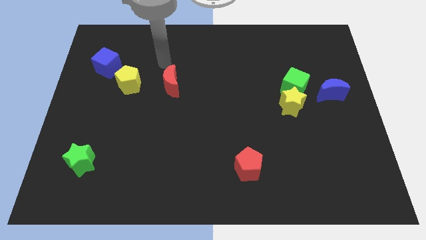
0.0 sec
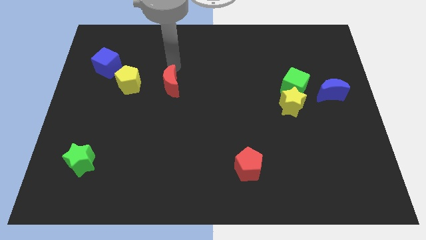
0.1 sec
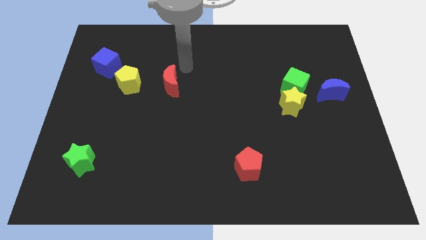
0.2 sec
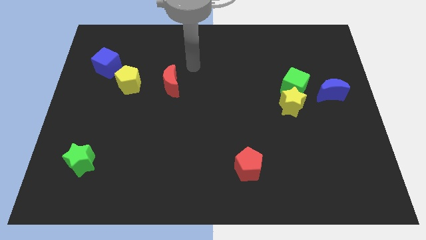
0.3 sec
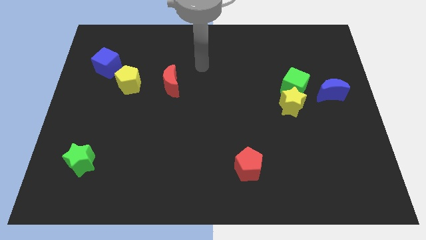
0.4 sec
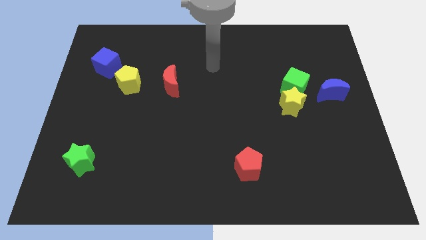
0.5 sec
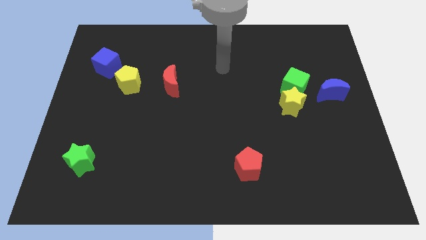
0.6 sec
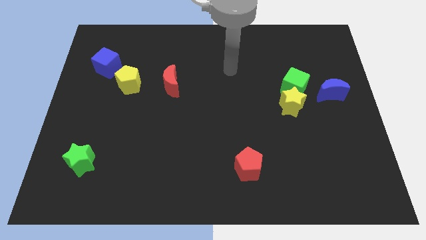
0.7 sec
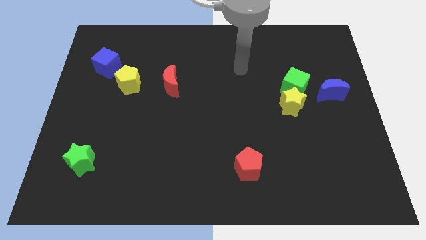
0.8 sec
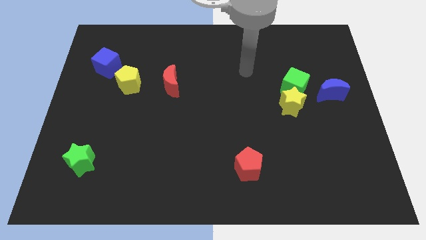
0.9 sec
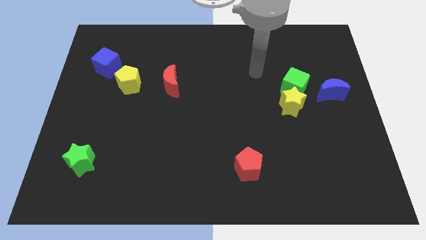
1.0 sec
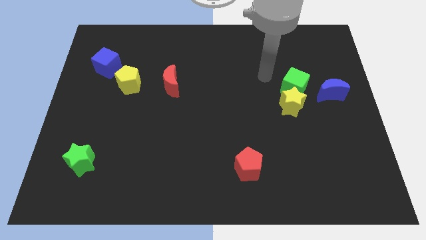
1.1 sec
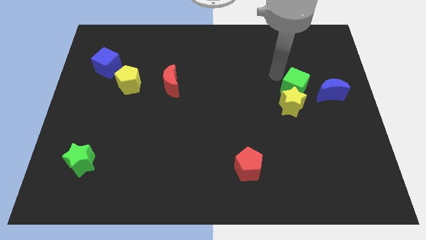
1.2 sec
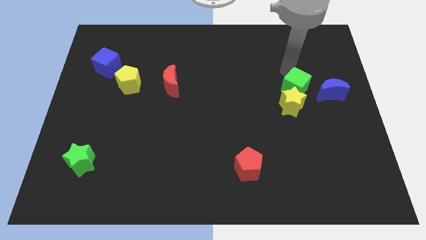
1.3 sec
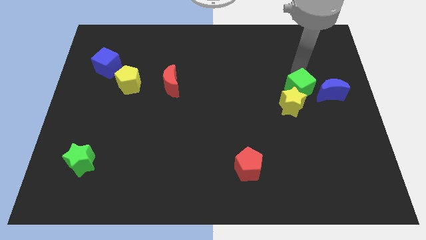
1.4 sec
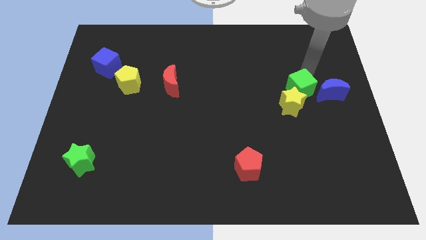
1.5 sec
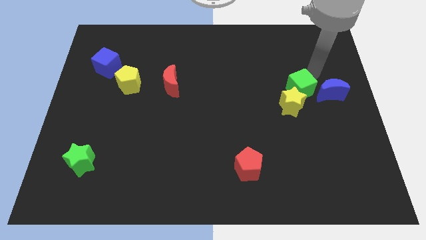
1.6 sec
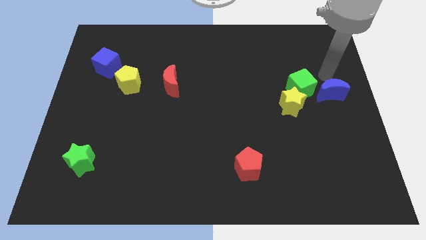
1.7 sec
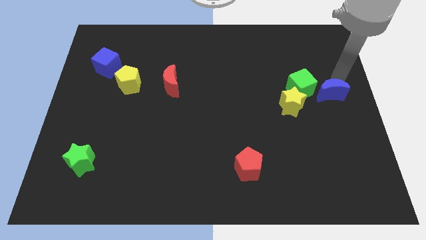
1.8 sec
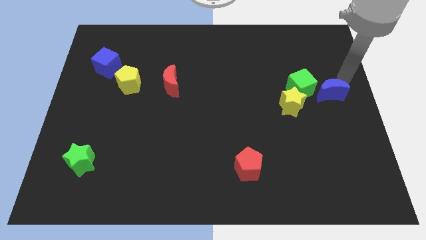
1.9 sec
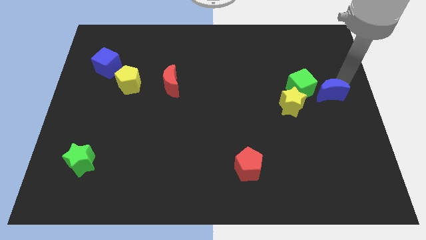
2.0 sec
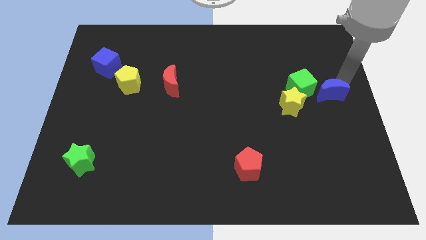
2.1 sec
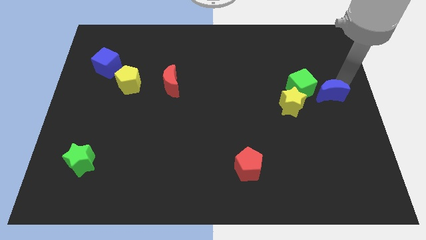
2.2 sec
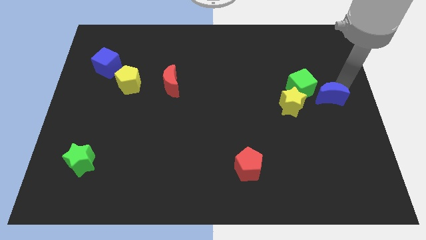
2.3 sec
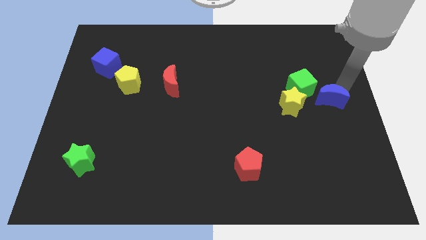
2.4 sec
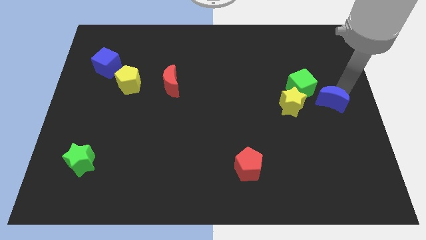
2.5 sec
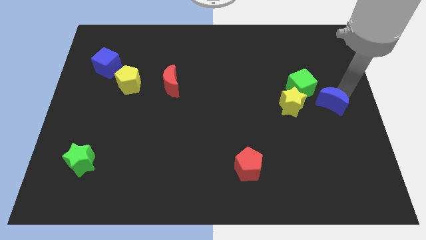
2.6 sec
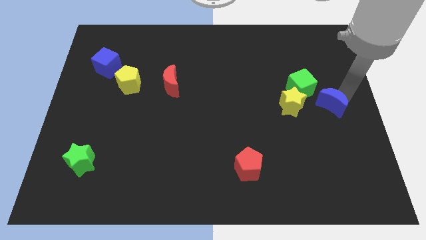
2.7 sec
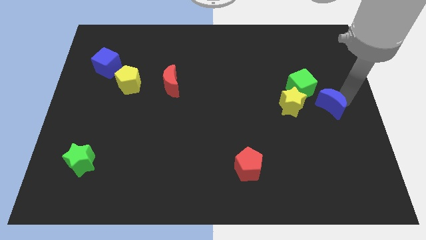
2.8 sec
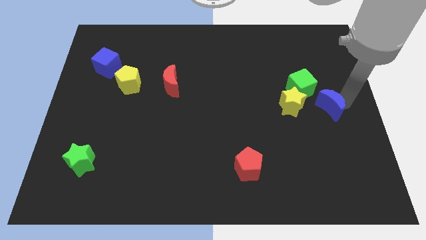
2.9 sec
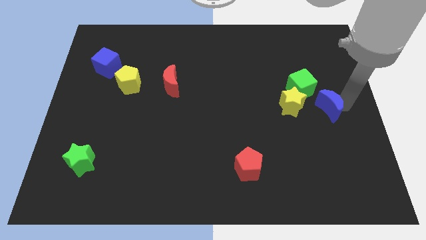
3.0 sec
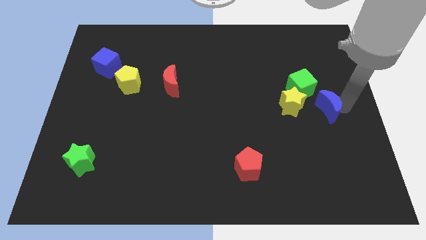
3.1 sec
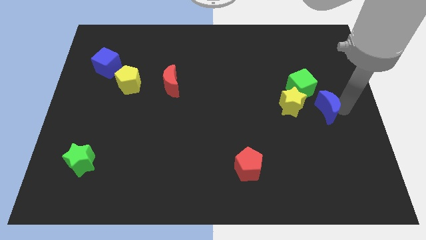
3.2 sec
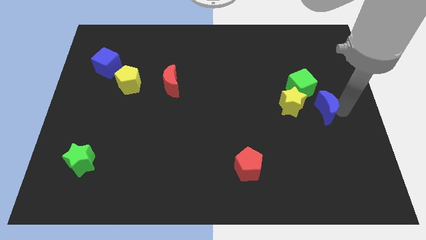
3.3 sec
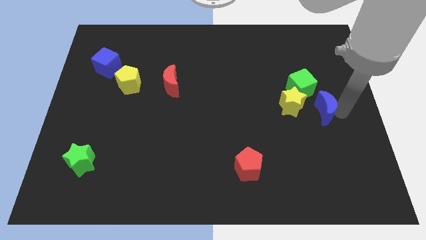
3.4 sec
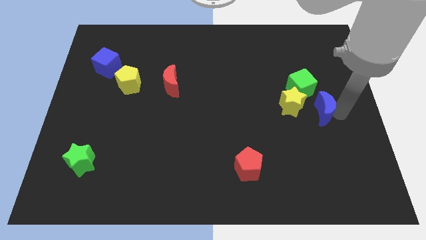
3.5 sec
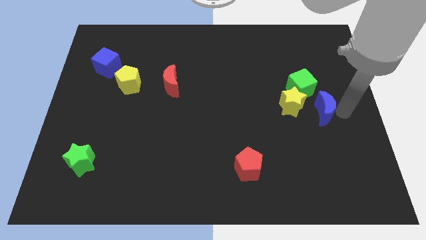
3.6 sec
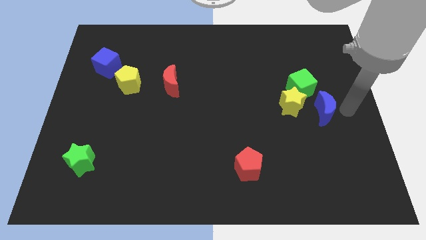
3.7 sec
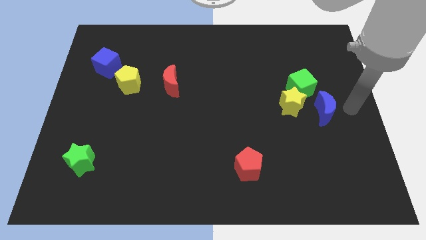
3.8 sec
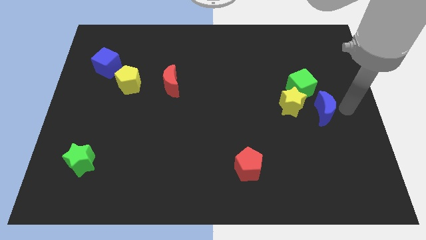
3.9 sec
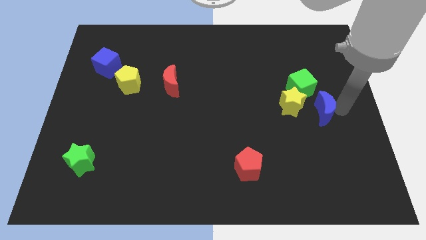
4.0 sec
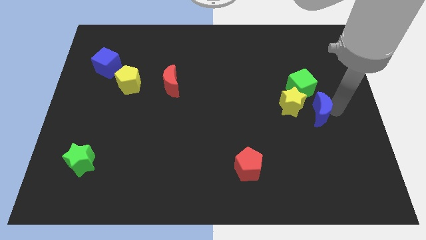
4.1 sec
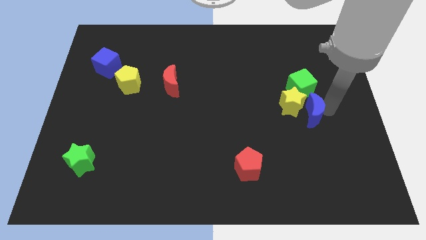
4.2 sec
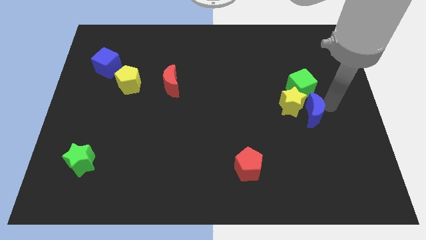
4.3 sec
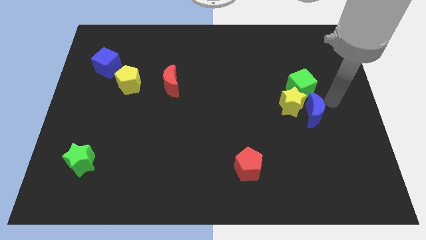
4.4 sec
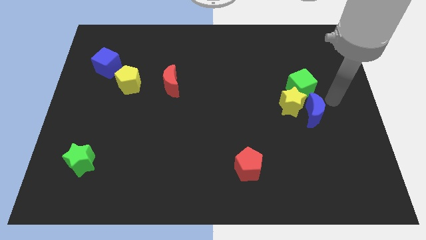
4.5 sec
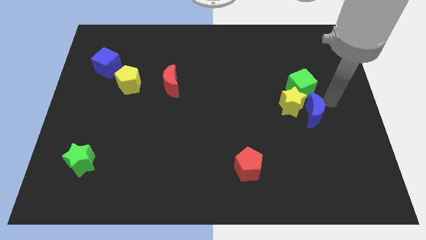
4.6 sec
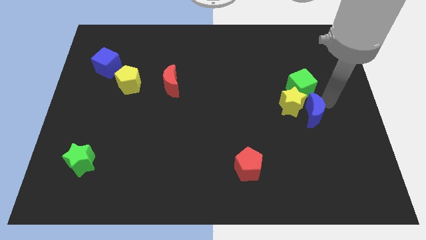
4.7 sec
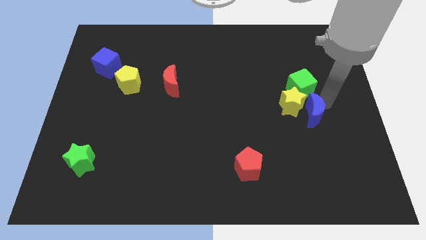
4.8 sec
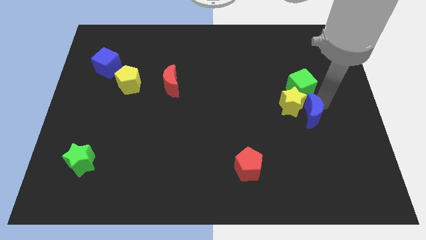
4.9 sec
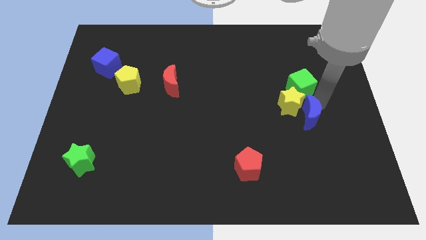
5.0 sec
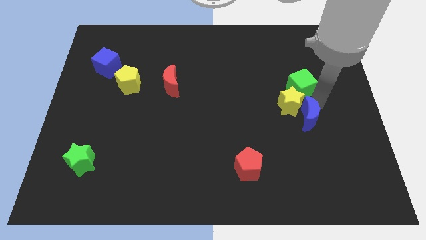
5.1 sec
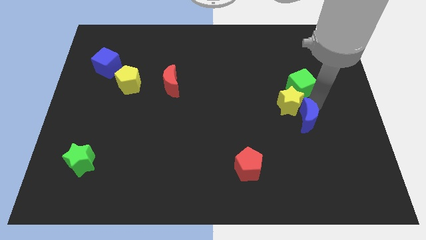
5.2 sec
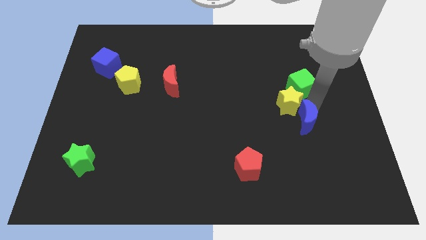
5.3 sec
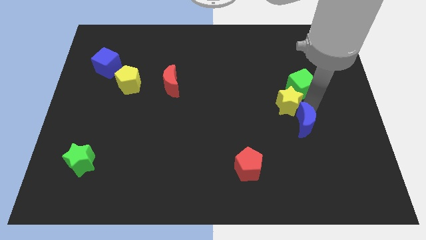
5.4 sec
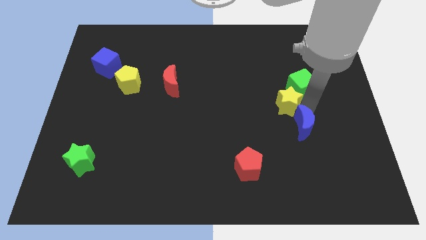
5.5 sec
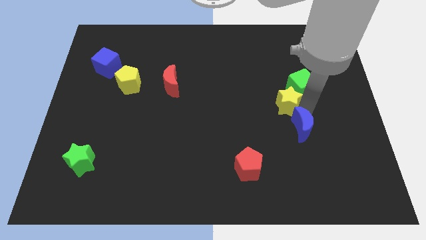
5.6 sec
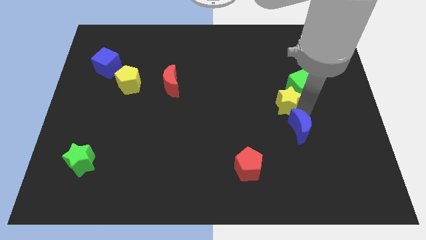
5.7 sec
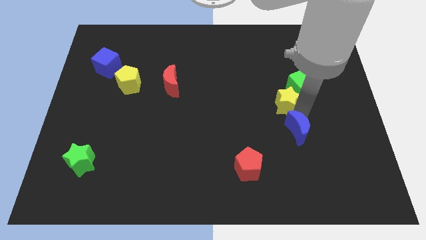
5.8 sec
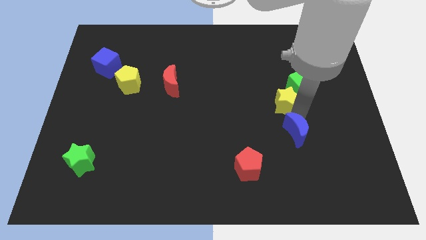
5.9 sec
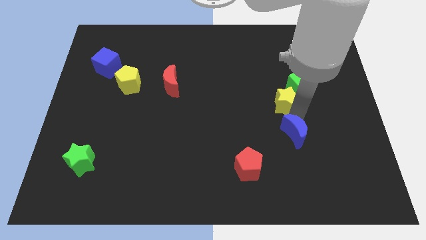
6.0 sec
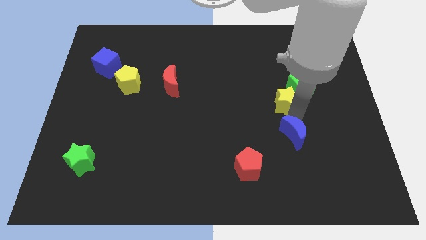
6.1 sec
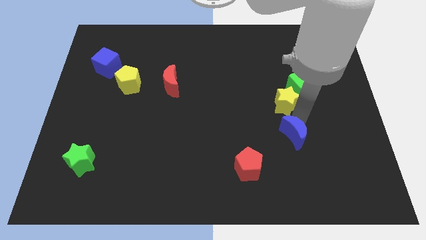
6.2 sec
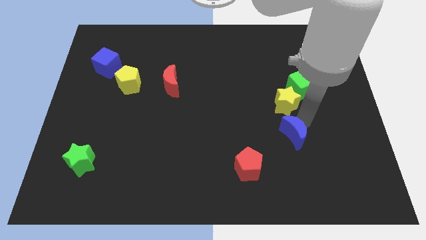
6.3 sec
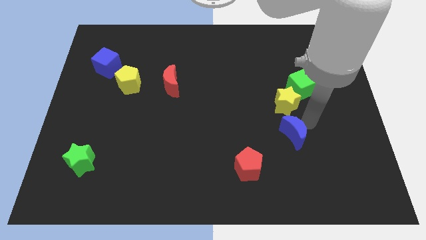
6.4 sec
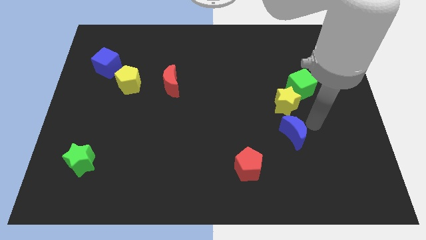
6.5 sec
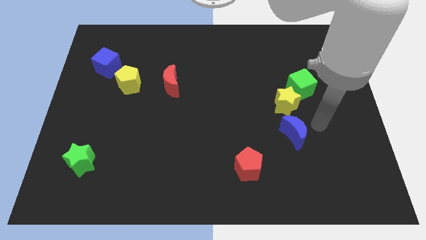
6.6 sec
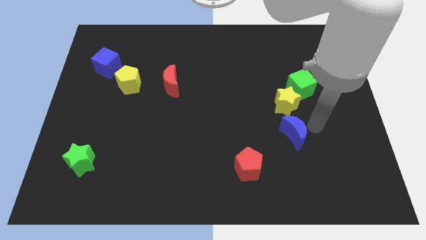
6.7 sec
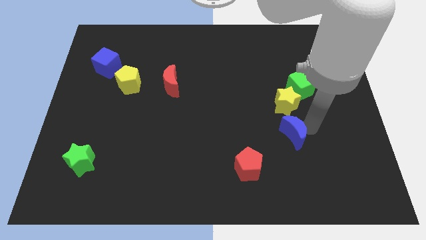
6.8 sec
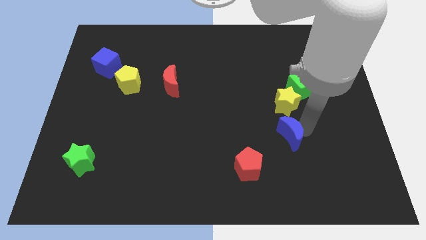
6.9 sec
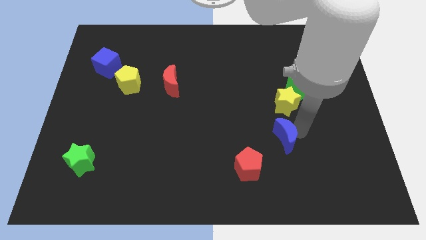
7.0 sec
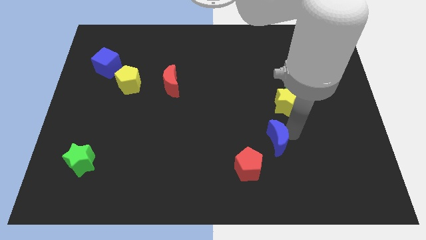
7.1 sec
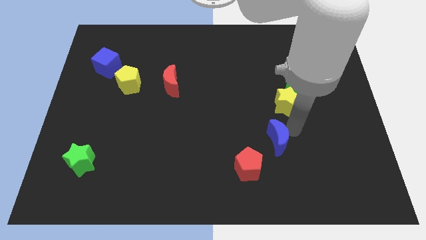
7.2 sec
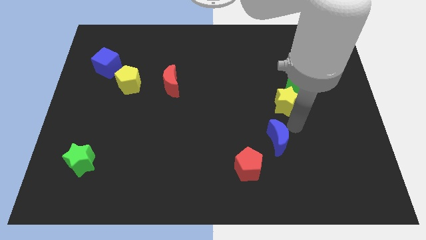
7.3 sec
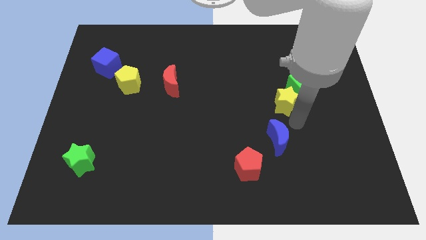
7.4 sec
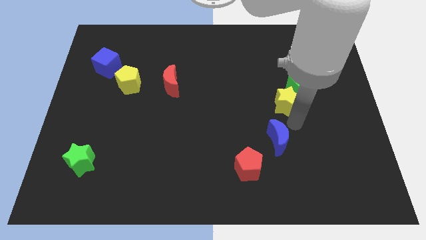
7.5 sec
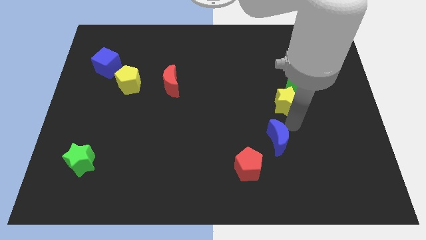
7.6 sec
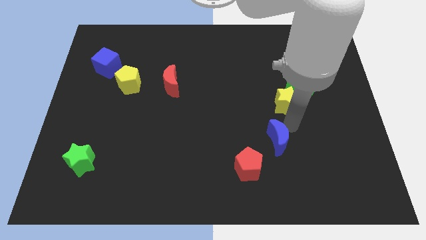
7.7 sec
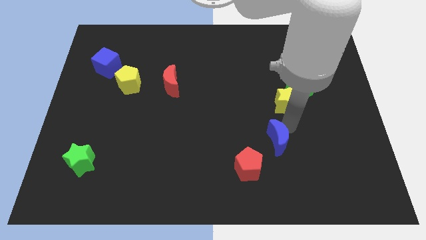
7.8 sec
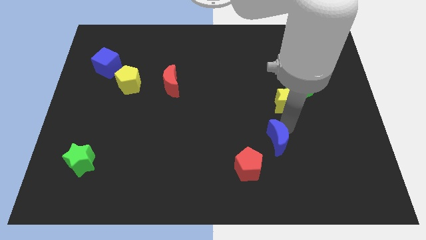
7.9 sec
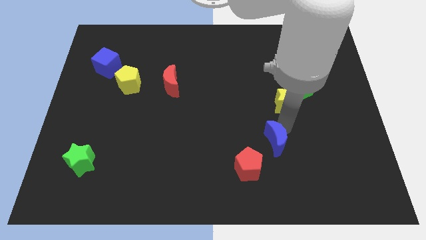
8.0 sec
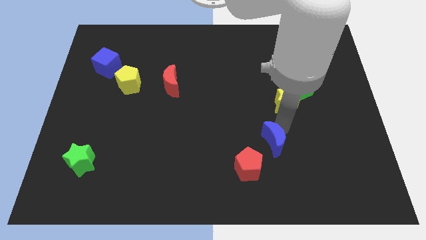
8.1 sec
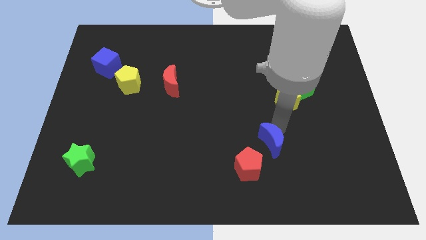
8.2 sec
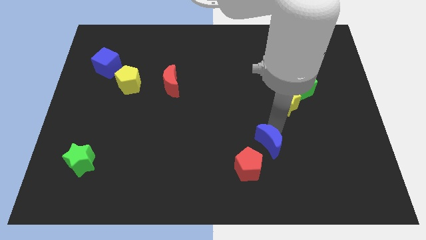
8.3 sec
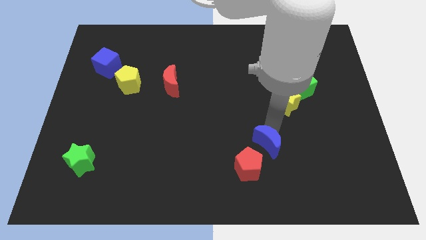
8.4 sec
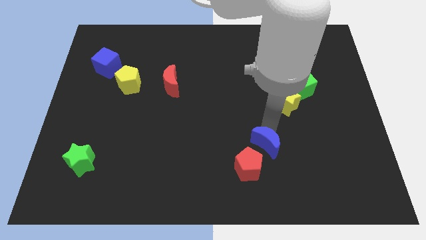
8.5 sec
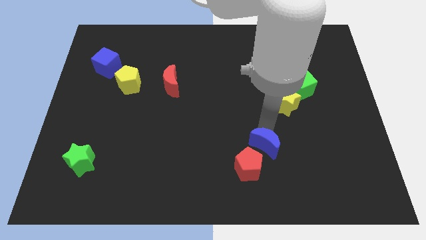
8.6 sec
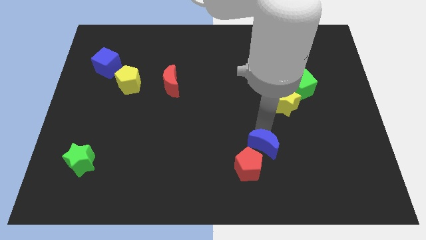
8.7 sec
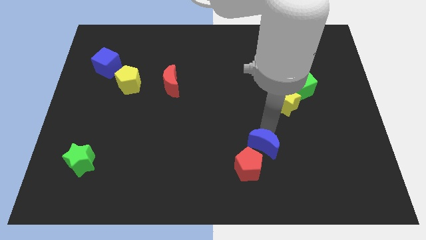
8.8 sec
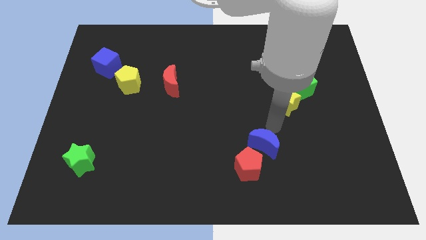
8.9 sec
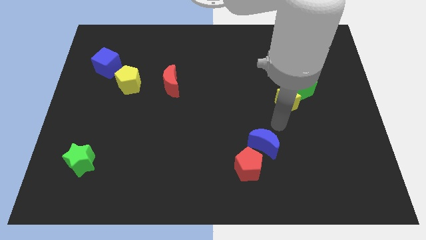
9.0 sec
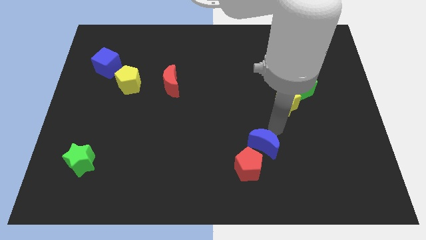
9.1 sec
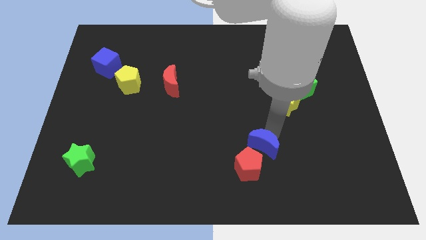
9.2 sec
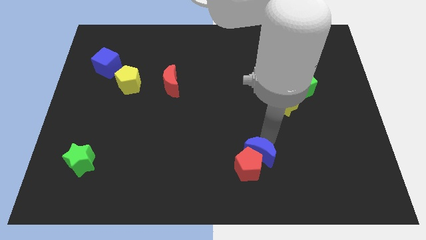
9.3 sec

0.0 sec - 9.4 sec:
slide the blue moon close to the red pentagon
